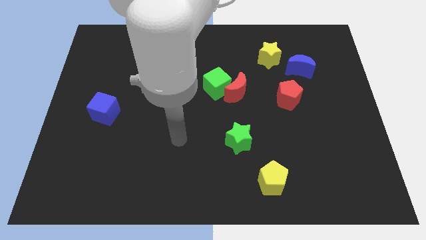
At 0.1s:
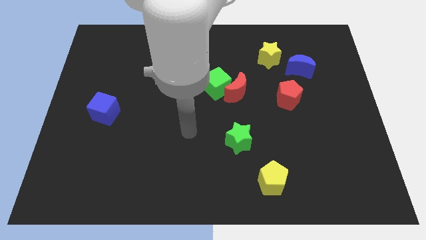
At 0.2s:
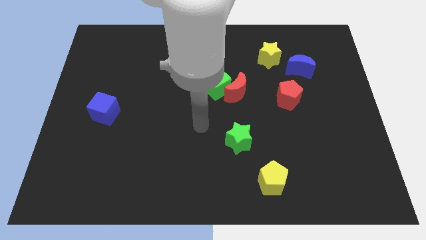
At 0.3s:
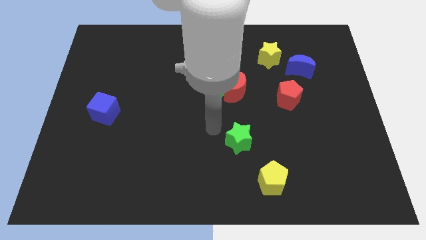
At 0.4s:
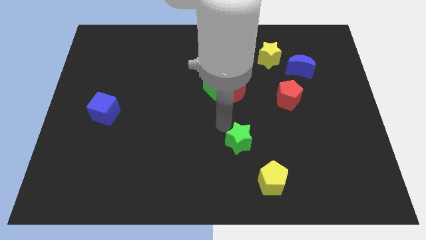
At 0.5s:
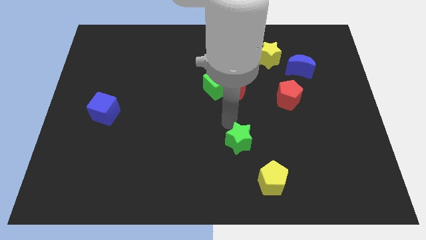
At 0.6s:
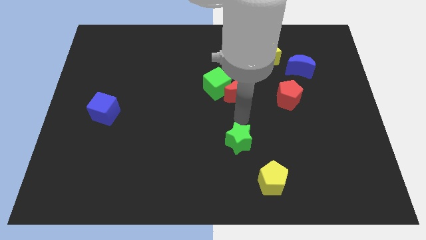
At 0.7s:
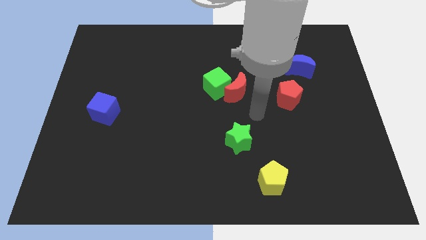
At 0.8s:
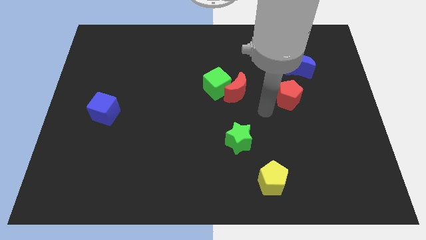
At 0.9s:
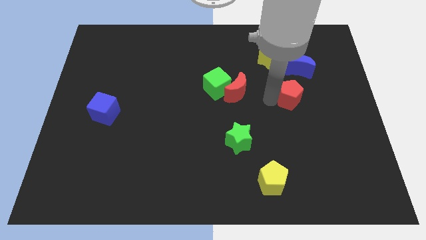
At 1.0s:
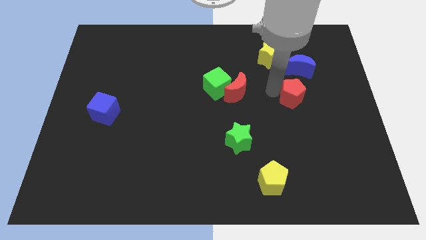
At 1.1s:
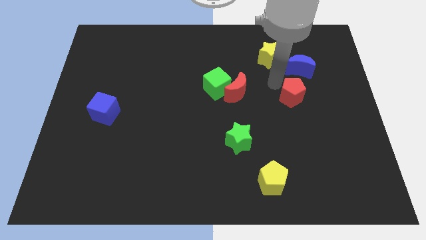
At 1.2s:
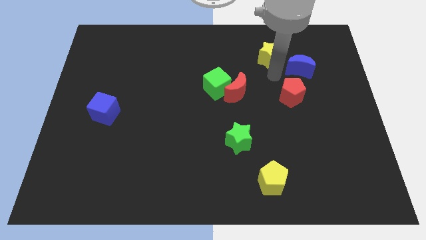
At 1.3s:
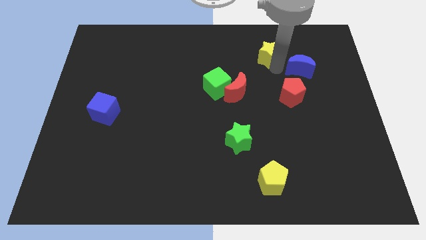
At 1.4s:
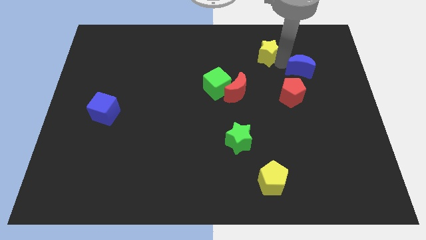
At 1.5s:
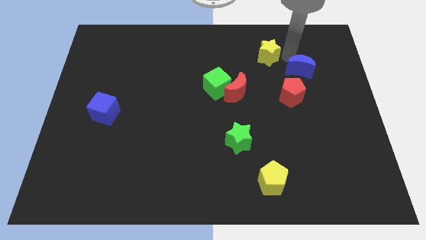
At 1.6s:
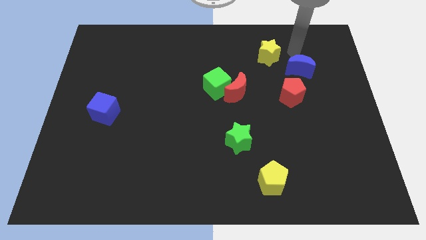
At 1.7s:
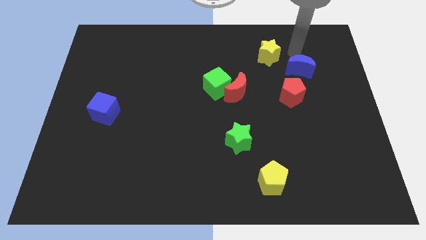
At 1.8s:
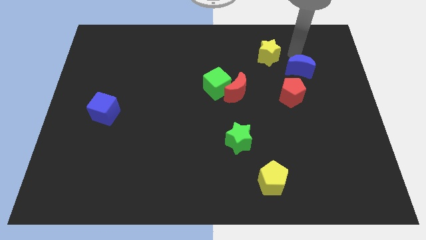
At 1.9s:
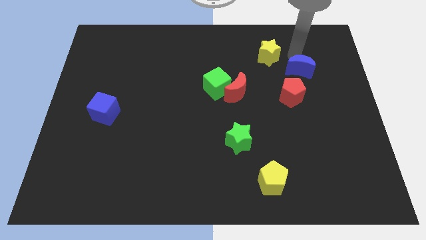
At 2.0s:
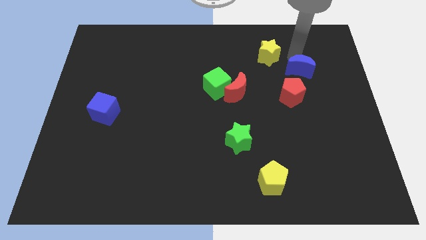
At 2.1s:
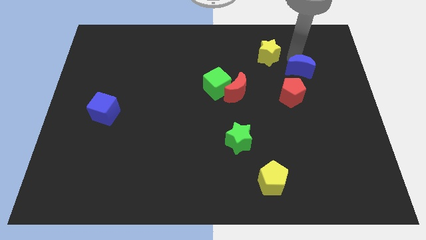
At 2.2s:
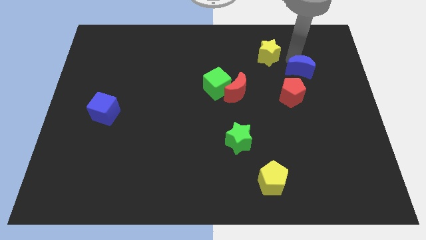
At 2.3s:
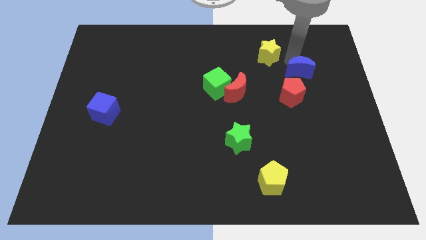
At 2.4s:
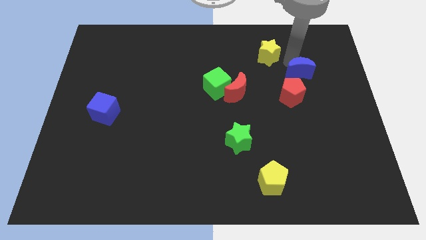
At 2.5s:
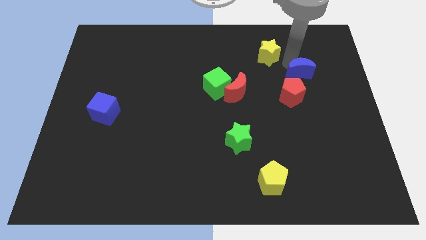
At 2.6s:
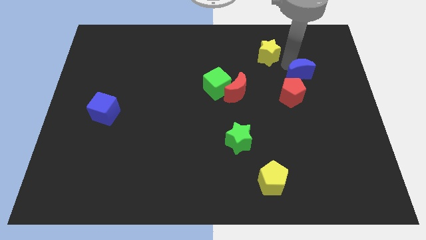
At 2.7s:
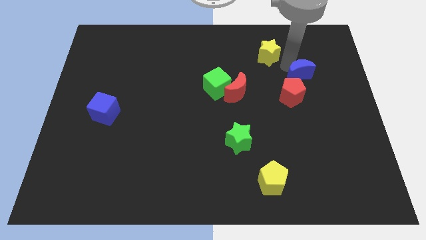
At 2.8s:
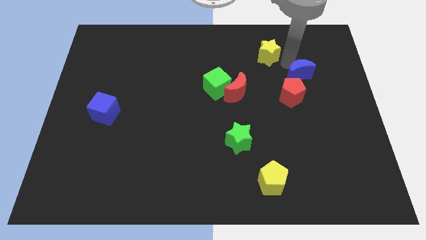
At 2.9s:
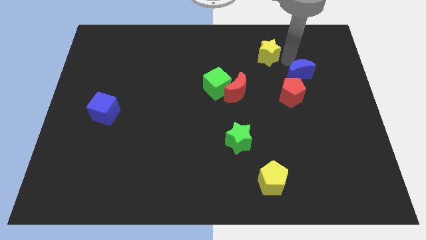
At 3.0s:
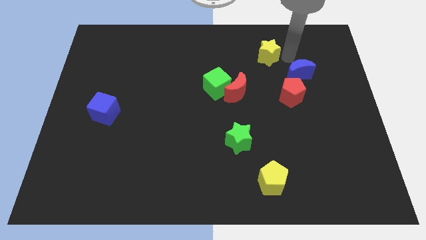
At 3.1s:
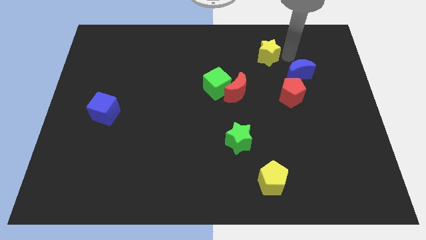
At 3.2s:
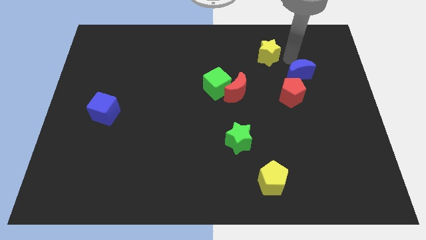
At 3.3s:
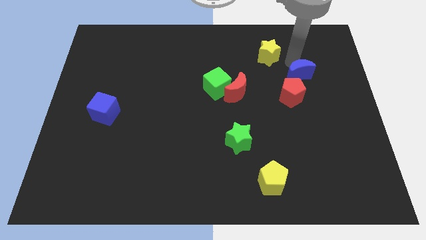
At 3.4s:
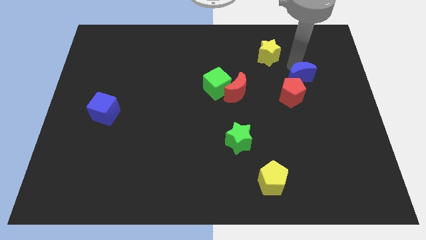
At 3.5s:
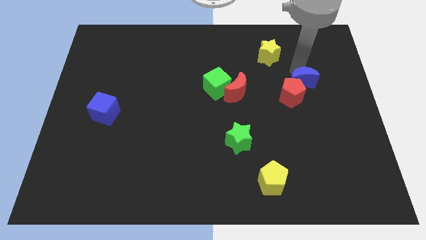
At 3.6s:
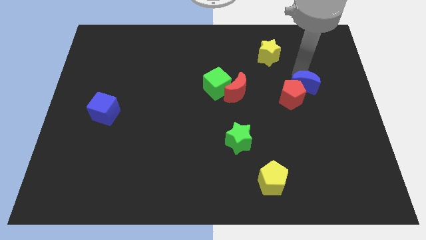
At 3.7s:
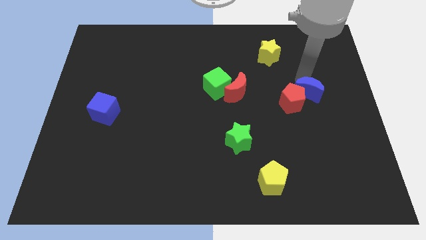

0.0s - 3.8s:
slightly move the blue moon down

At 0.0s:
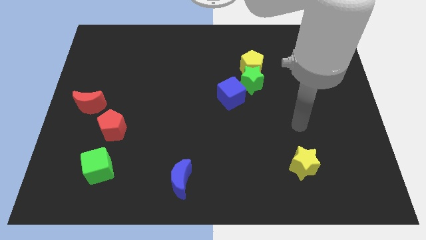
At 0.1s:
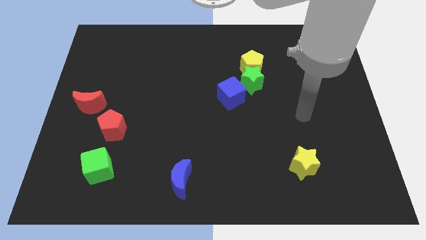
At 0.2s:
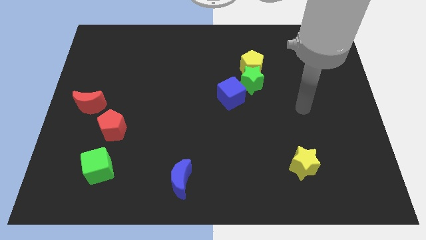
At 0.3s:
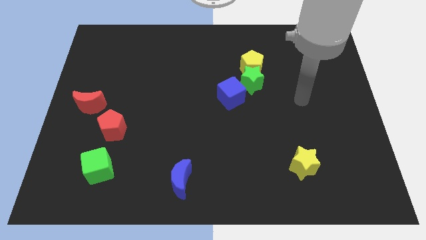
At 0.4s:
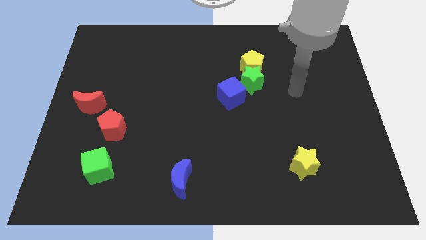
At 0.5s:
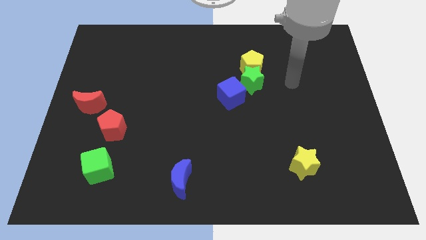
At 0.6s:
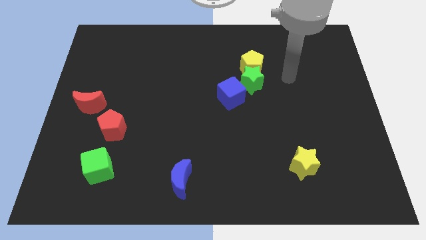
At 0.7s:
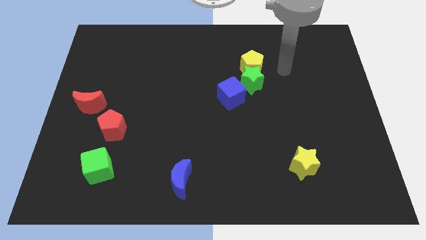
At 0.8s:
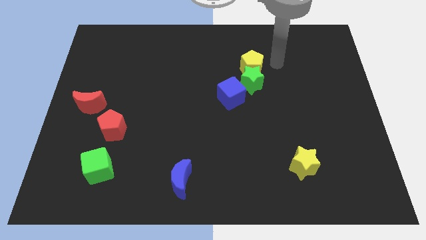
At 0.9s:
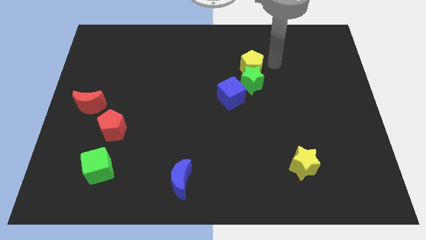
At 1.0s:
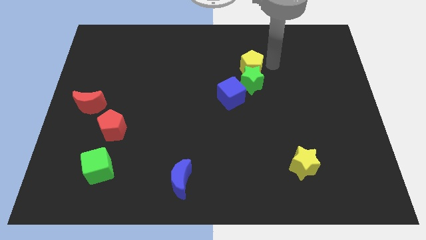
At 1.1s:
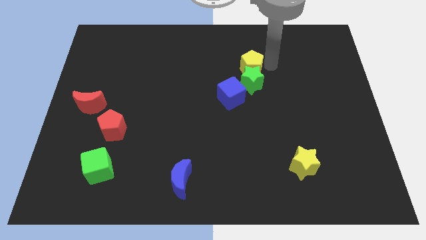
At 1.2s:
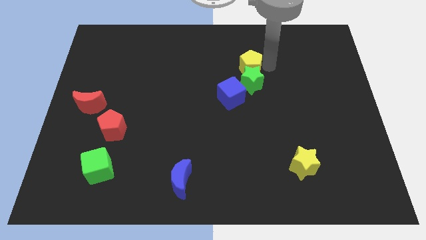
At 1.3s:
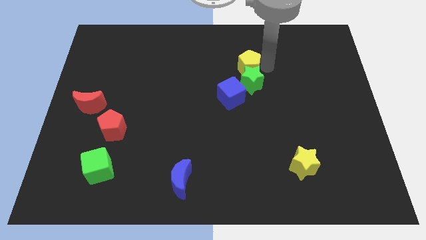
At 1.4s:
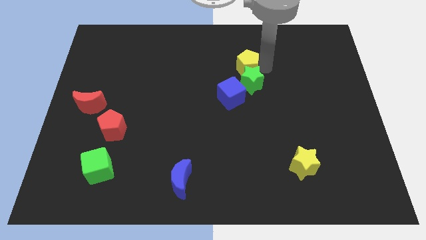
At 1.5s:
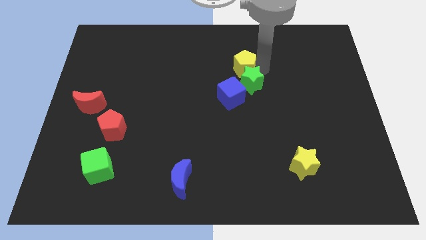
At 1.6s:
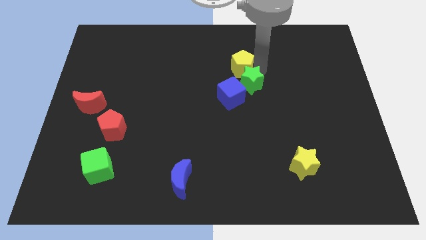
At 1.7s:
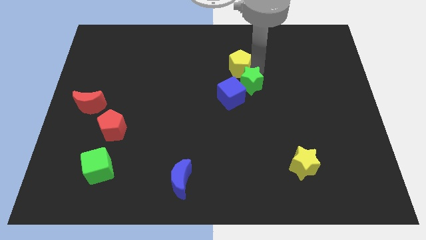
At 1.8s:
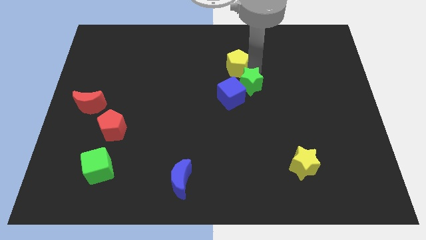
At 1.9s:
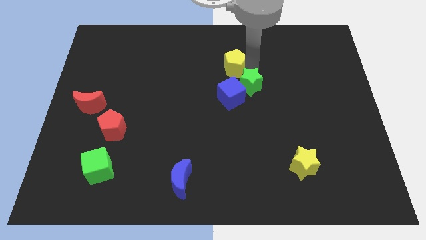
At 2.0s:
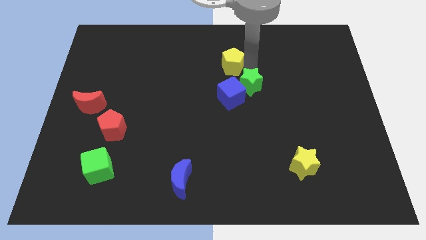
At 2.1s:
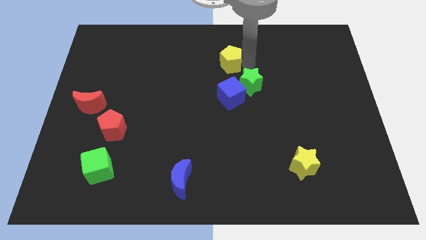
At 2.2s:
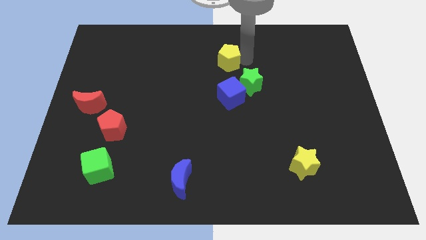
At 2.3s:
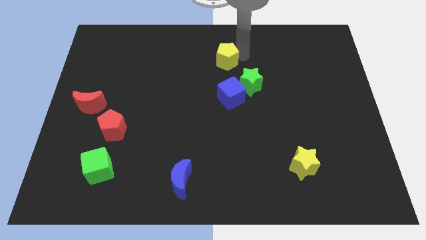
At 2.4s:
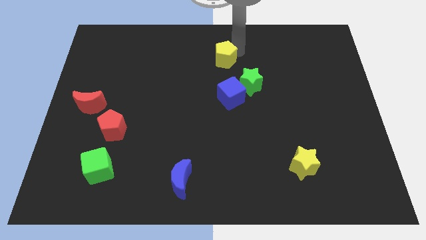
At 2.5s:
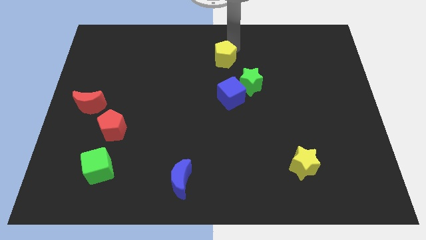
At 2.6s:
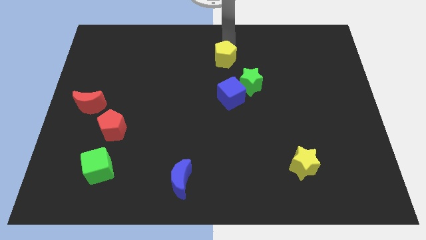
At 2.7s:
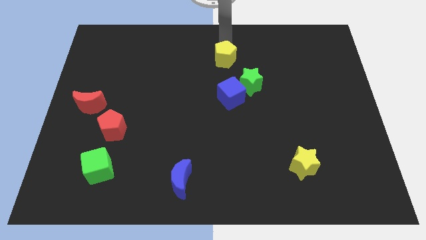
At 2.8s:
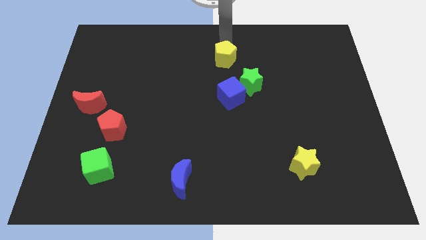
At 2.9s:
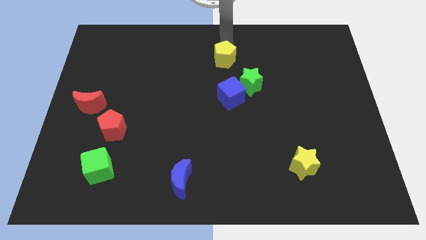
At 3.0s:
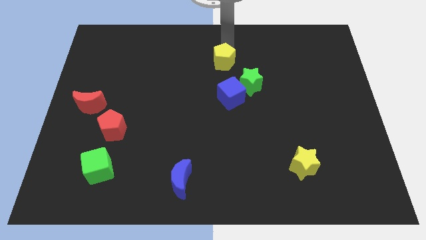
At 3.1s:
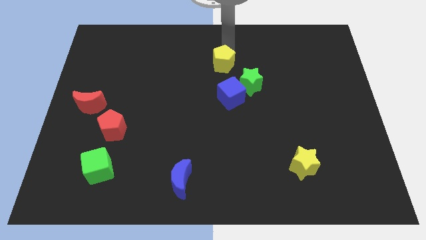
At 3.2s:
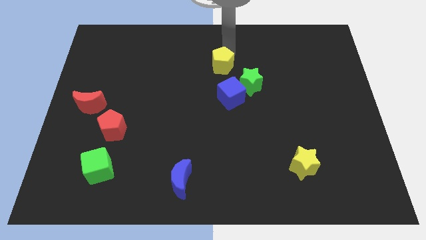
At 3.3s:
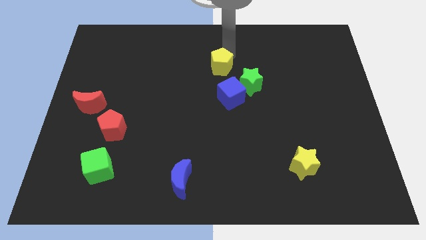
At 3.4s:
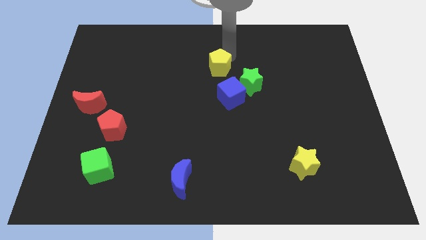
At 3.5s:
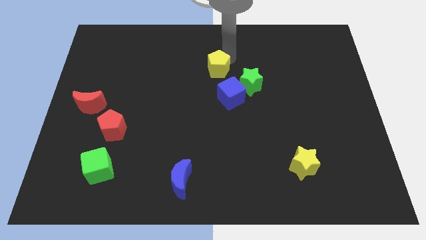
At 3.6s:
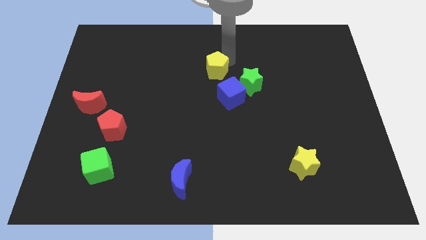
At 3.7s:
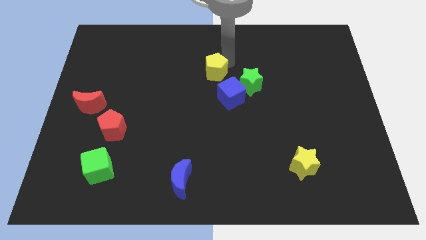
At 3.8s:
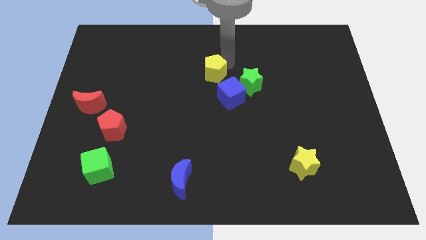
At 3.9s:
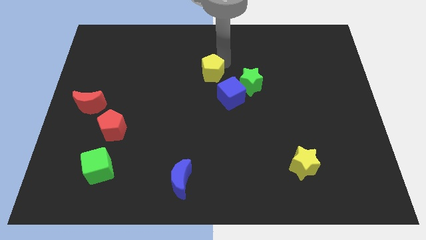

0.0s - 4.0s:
slightly push the yellow pentagon downwards and left diagonally

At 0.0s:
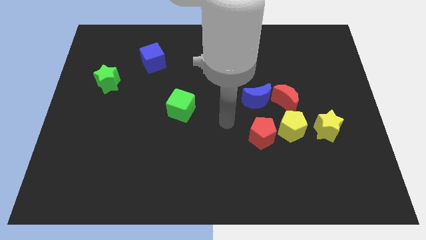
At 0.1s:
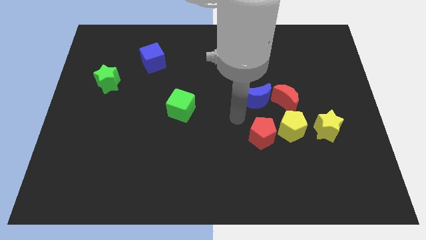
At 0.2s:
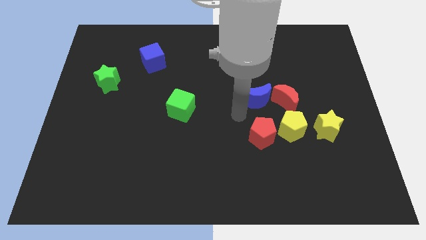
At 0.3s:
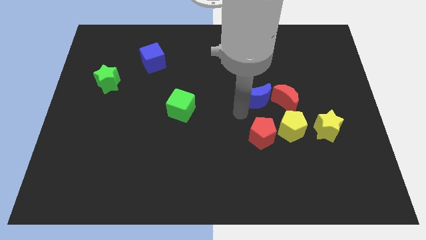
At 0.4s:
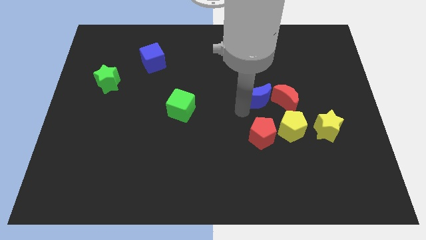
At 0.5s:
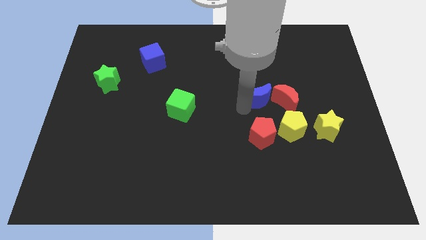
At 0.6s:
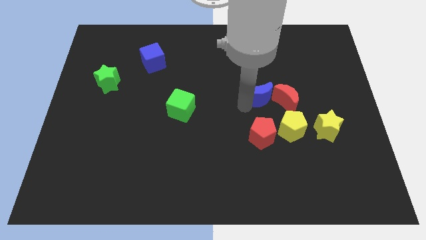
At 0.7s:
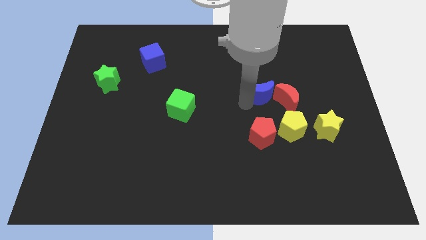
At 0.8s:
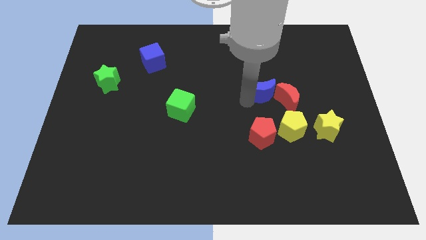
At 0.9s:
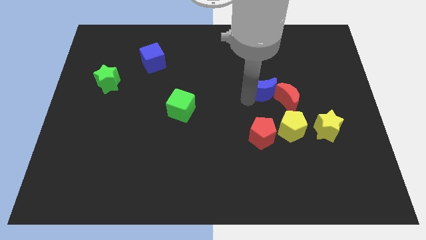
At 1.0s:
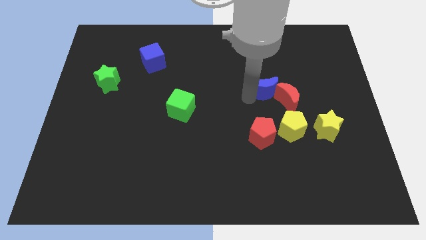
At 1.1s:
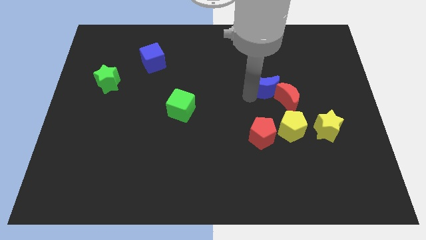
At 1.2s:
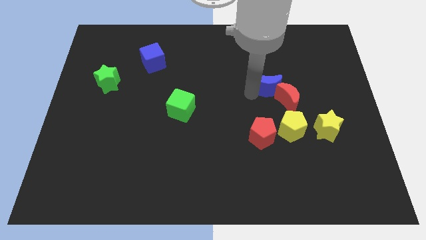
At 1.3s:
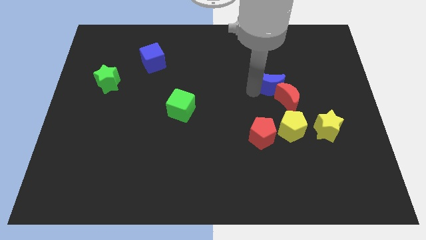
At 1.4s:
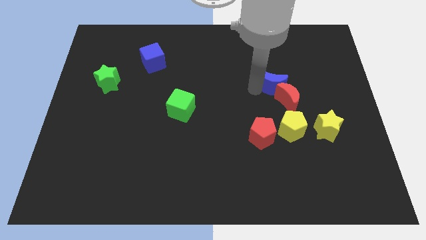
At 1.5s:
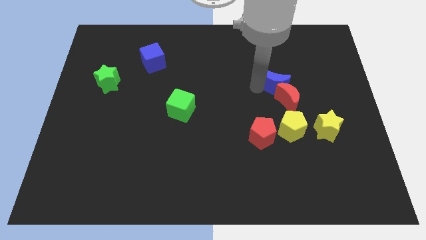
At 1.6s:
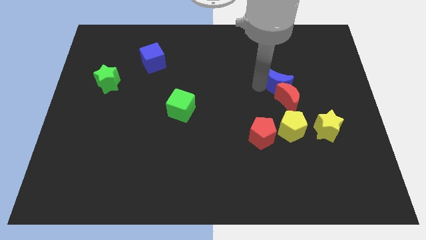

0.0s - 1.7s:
slightly push the blue moon diagonally up and right
